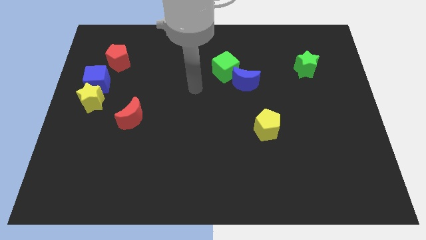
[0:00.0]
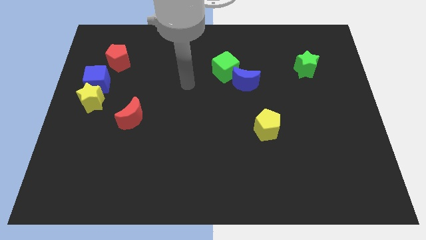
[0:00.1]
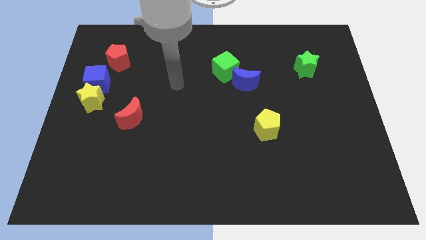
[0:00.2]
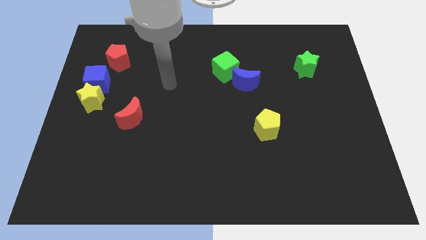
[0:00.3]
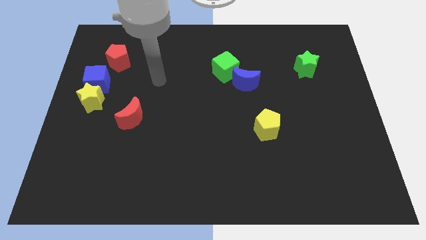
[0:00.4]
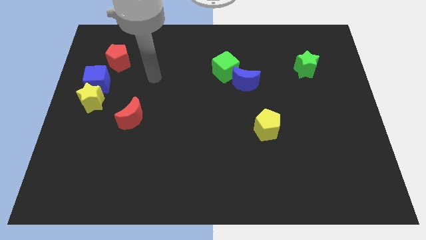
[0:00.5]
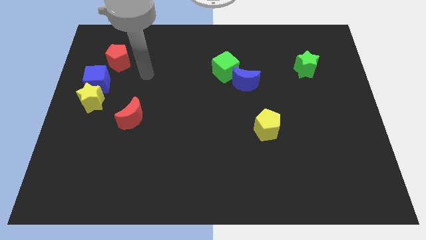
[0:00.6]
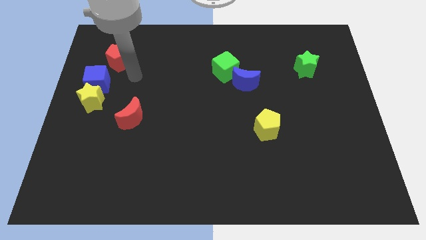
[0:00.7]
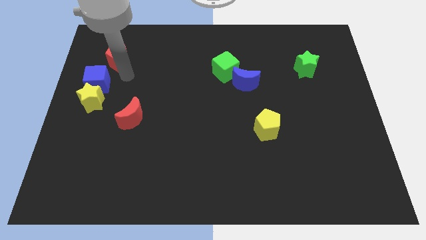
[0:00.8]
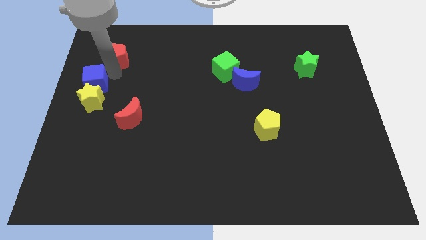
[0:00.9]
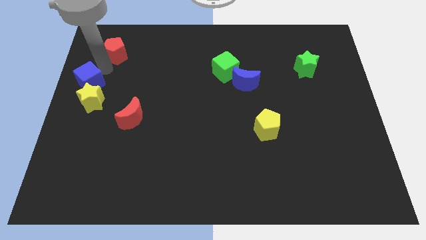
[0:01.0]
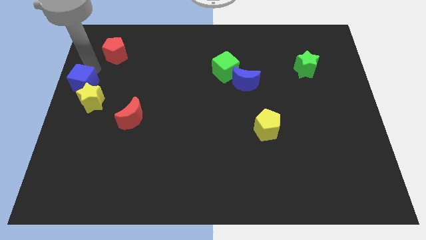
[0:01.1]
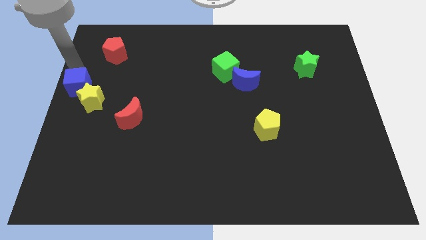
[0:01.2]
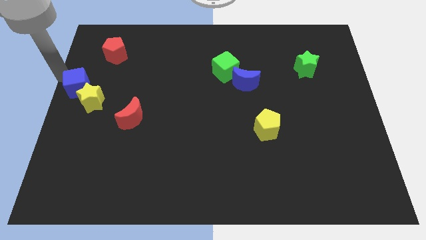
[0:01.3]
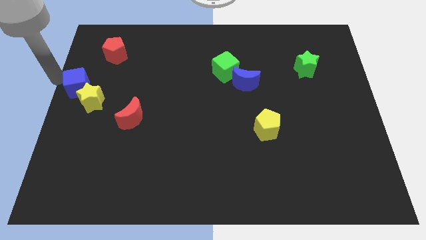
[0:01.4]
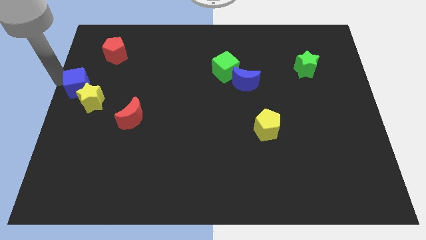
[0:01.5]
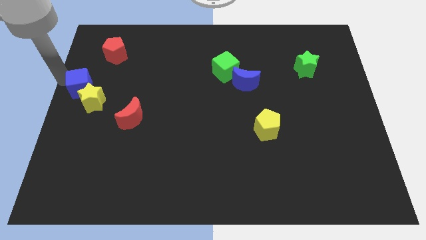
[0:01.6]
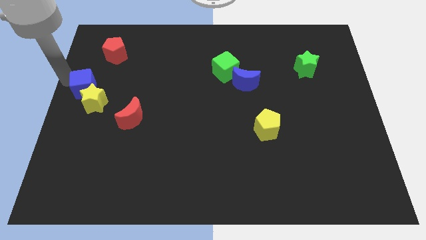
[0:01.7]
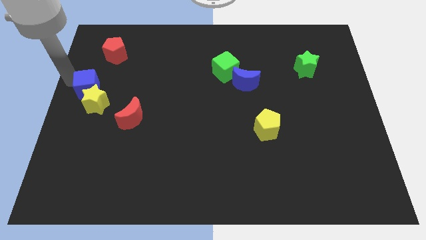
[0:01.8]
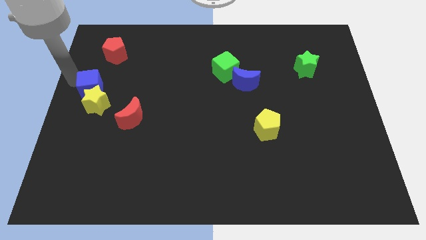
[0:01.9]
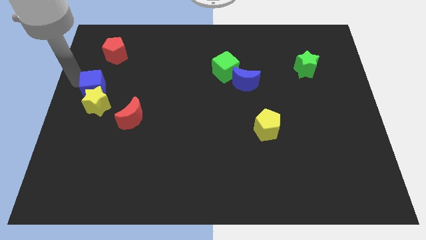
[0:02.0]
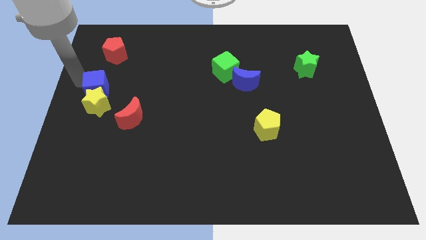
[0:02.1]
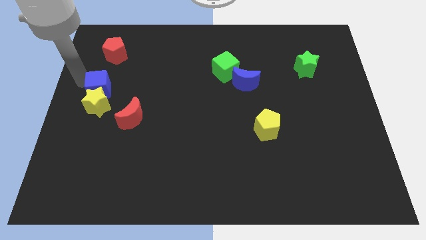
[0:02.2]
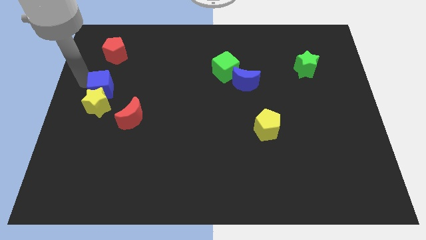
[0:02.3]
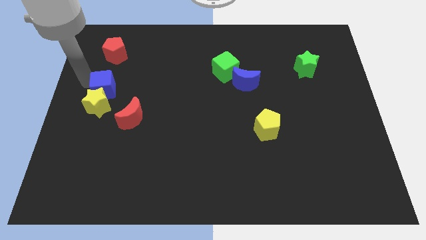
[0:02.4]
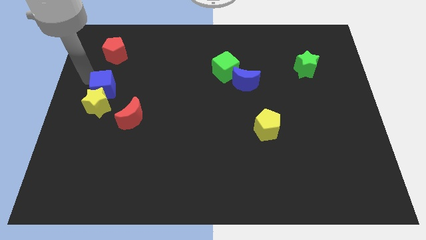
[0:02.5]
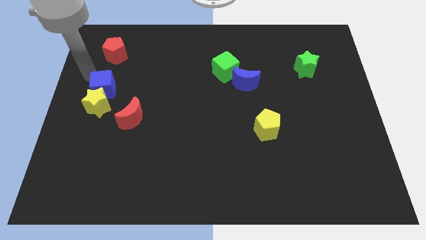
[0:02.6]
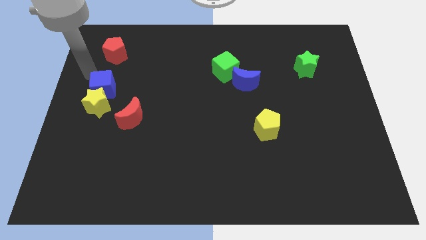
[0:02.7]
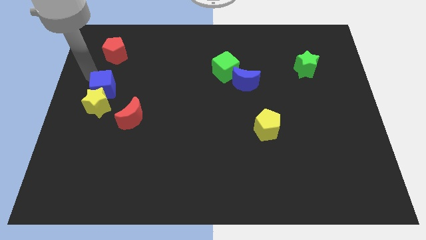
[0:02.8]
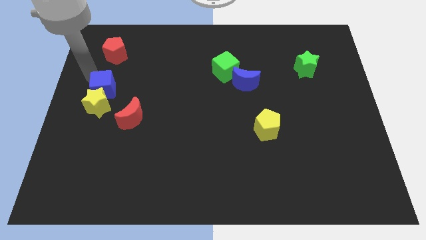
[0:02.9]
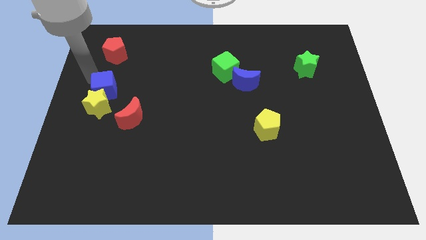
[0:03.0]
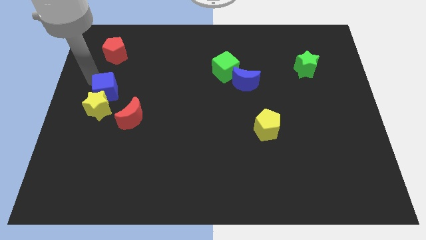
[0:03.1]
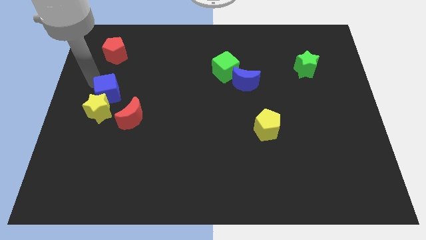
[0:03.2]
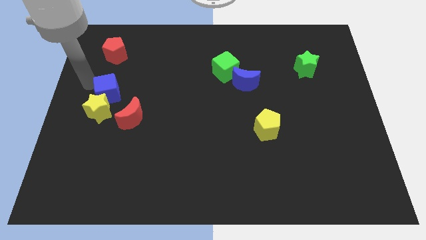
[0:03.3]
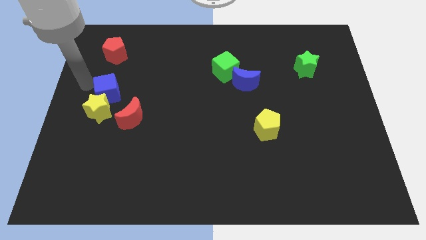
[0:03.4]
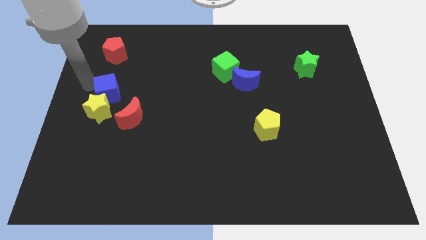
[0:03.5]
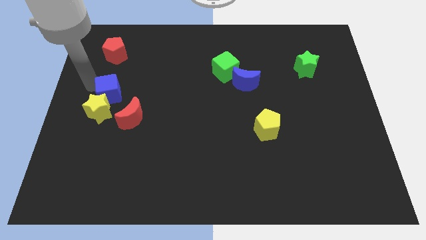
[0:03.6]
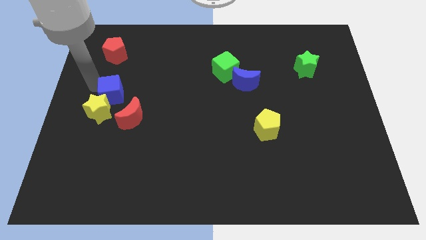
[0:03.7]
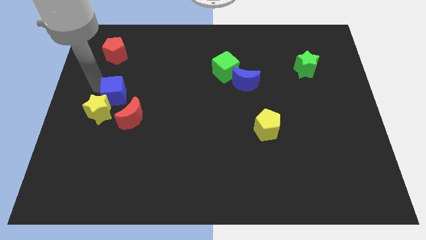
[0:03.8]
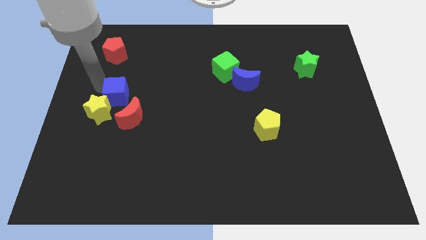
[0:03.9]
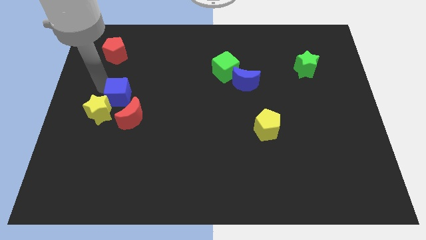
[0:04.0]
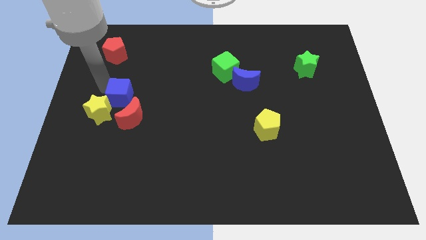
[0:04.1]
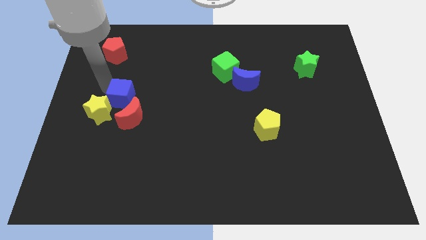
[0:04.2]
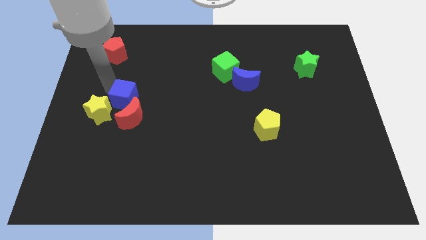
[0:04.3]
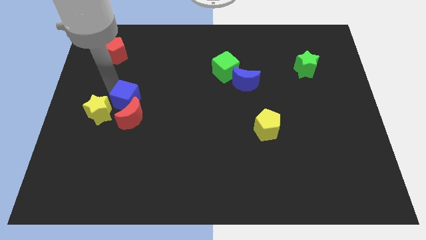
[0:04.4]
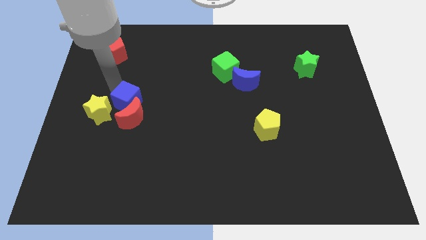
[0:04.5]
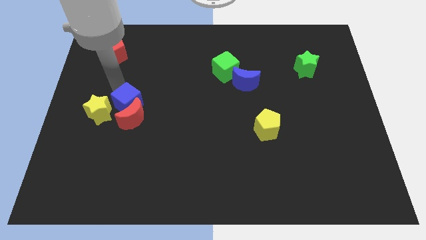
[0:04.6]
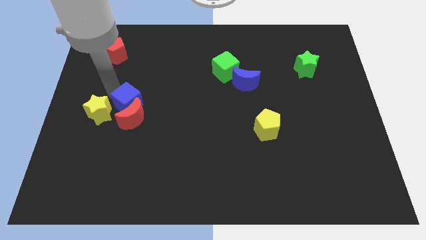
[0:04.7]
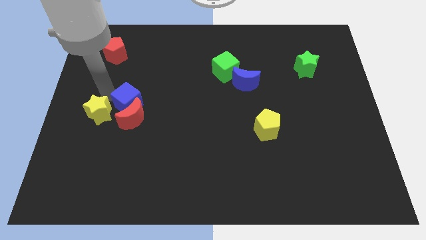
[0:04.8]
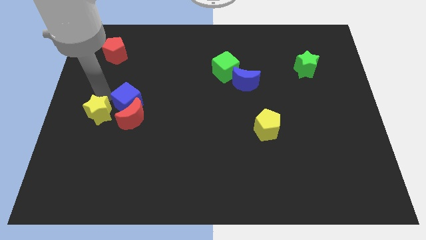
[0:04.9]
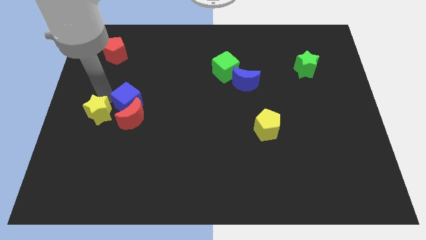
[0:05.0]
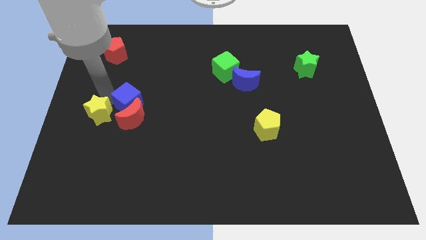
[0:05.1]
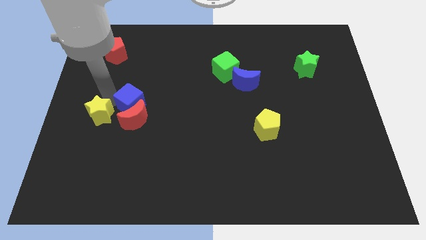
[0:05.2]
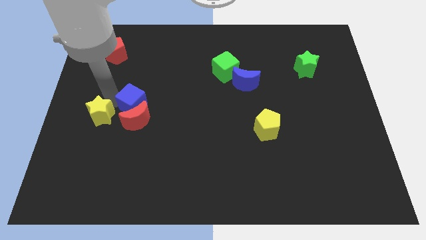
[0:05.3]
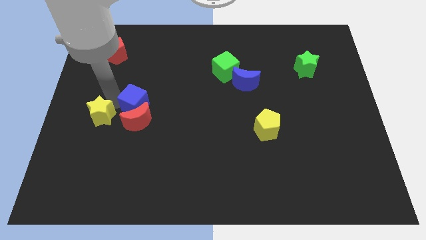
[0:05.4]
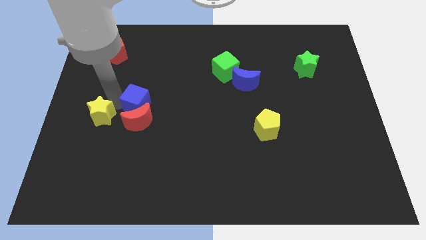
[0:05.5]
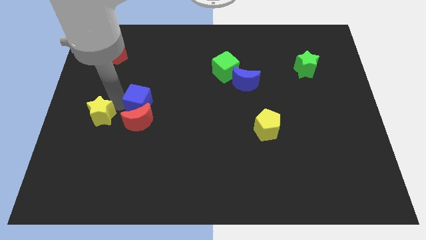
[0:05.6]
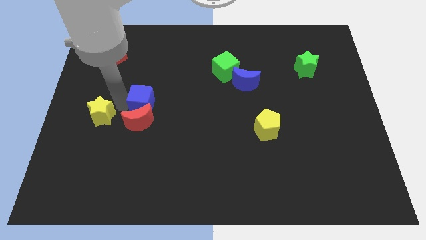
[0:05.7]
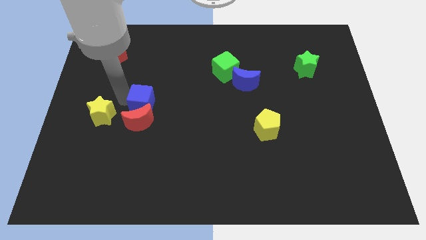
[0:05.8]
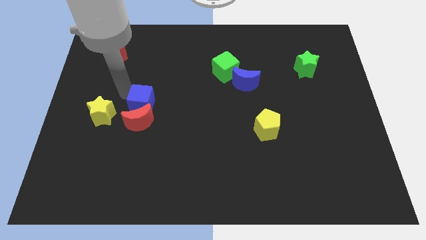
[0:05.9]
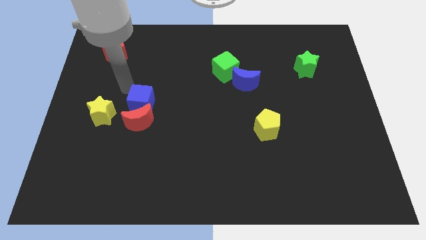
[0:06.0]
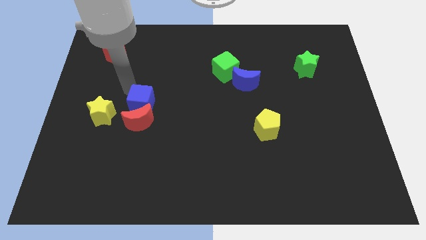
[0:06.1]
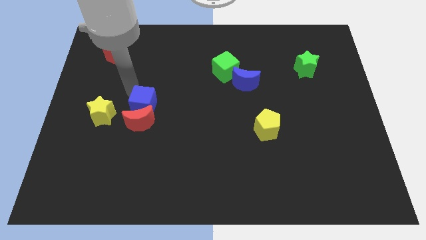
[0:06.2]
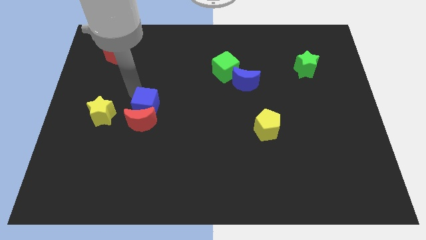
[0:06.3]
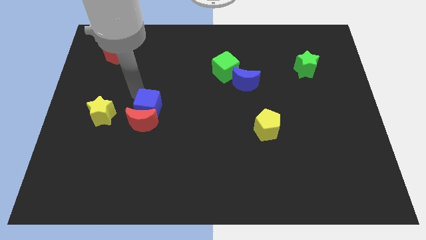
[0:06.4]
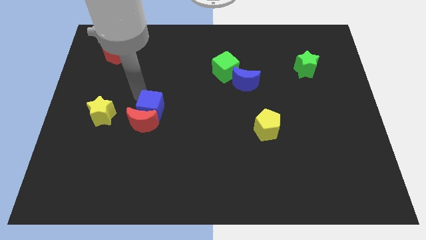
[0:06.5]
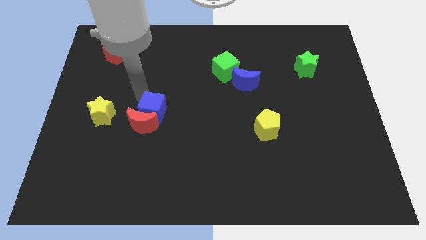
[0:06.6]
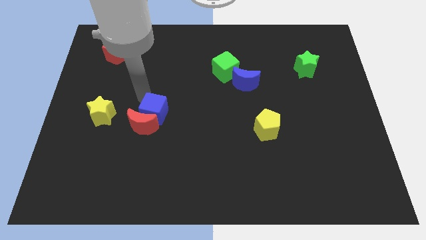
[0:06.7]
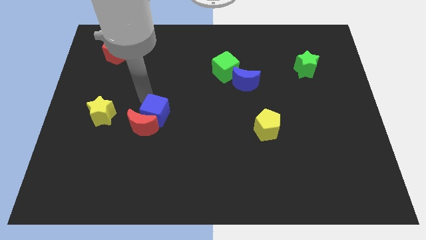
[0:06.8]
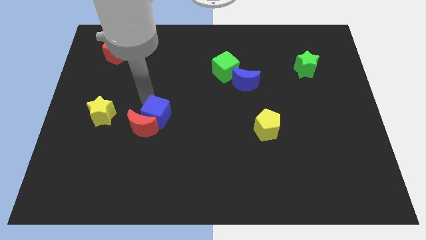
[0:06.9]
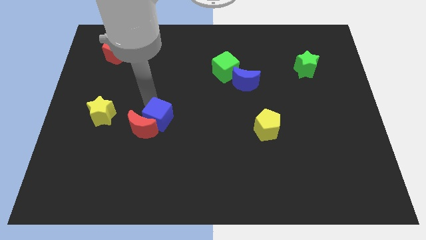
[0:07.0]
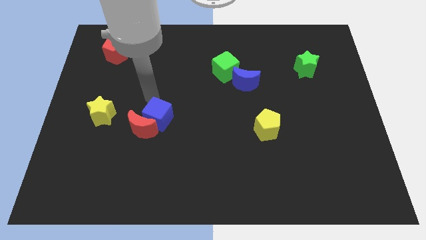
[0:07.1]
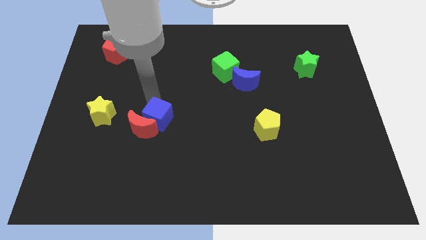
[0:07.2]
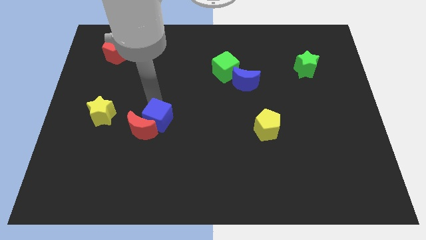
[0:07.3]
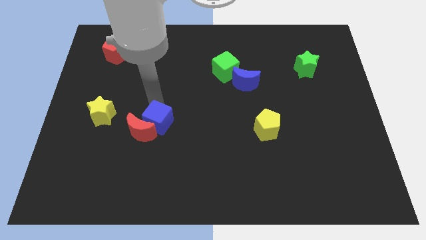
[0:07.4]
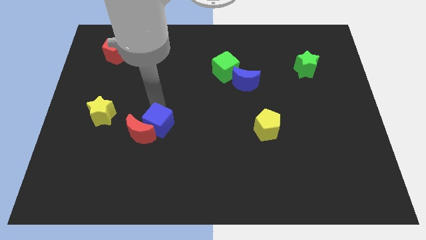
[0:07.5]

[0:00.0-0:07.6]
move the blue cube diagonally down and right

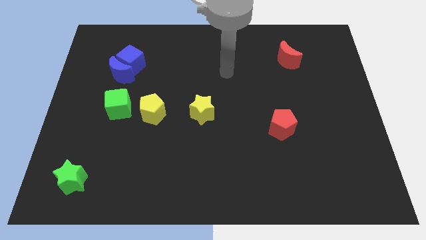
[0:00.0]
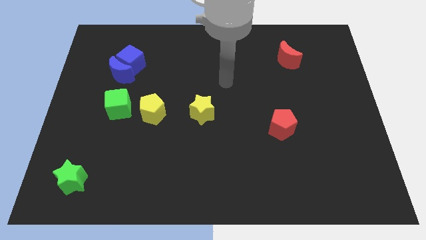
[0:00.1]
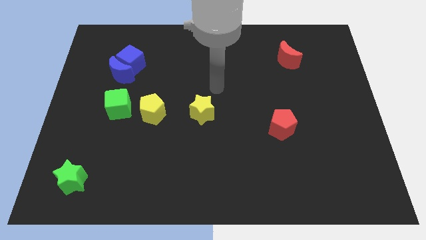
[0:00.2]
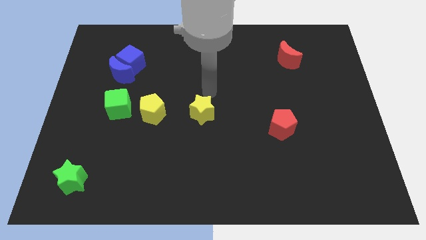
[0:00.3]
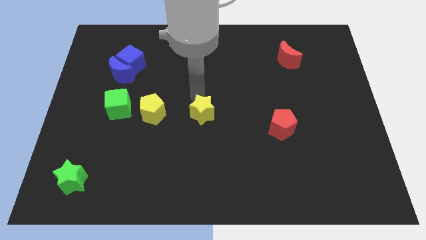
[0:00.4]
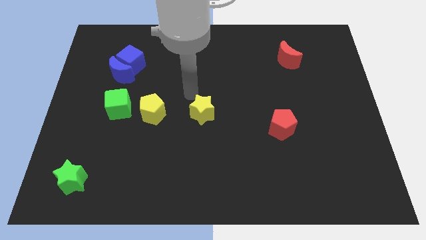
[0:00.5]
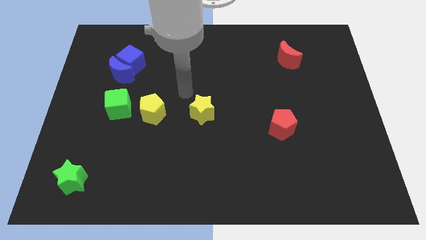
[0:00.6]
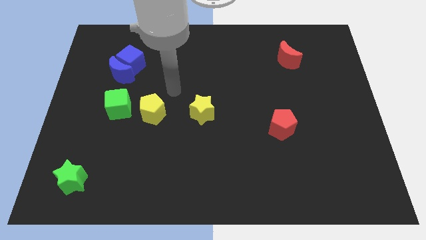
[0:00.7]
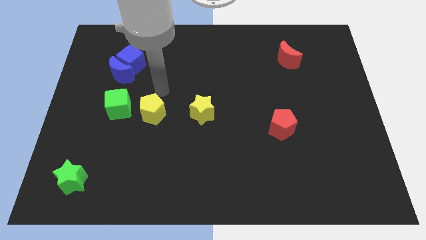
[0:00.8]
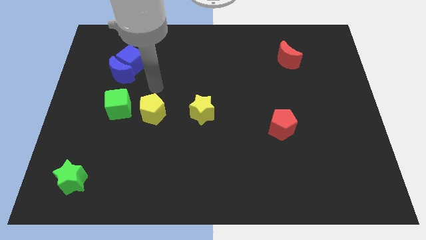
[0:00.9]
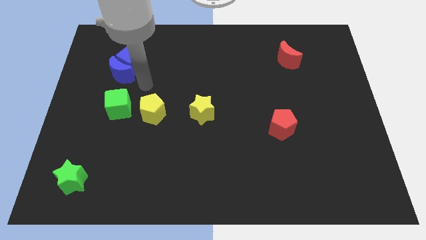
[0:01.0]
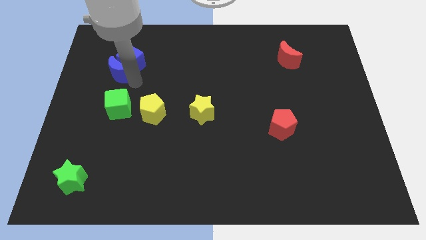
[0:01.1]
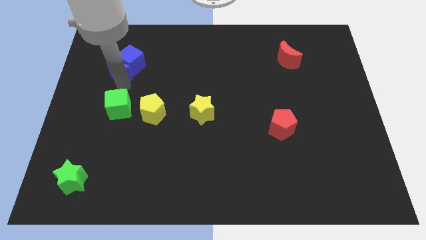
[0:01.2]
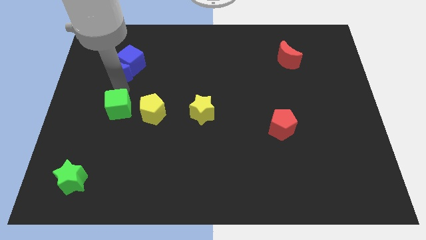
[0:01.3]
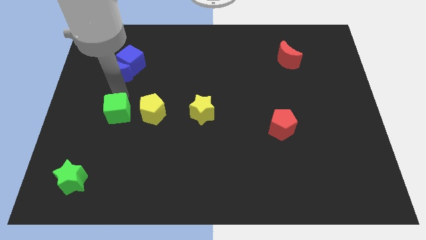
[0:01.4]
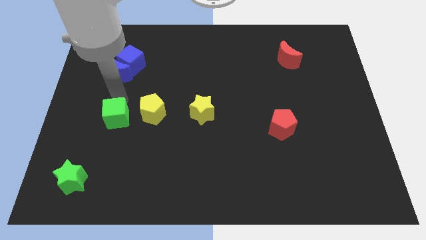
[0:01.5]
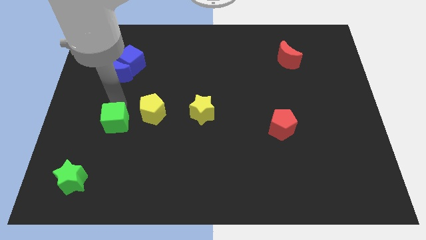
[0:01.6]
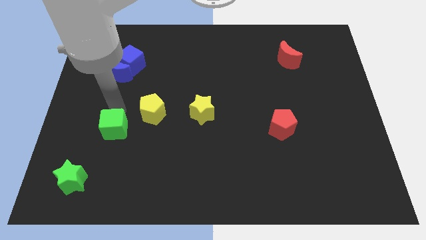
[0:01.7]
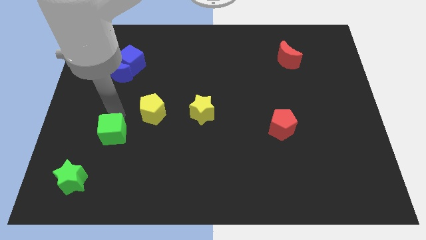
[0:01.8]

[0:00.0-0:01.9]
slide the green cube downwards a little
